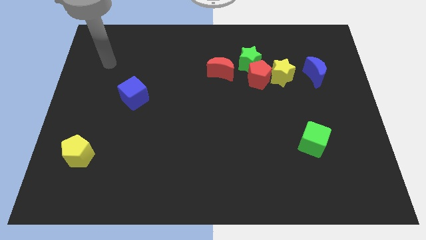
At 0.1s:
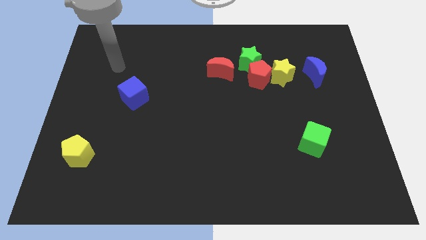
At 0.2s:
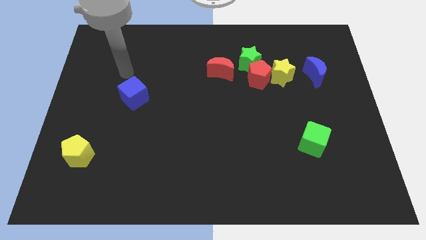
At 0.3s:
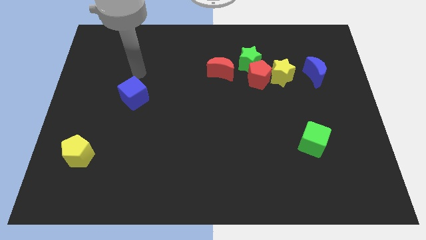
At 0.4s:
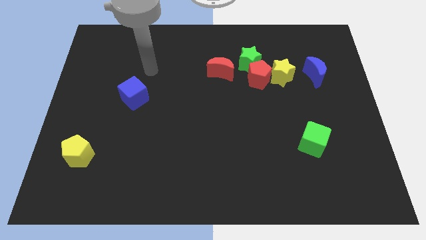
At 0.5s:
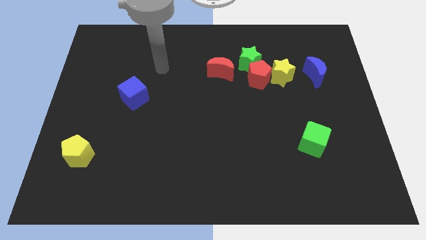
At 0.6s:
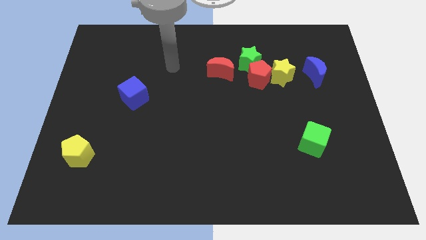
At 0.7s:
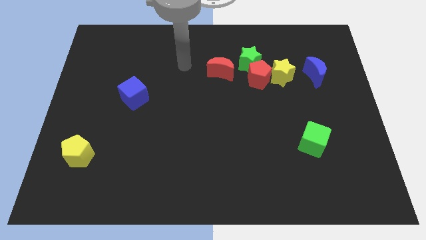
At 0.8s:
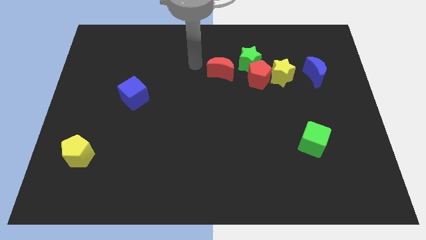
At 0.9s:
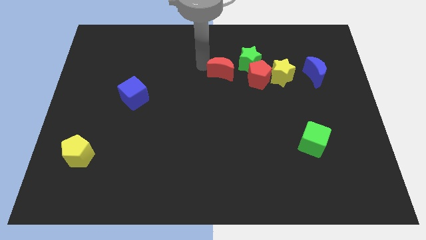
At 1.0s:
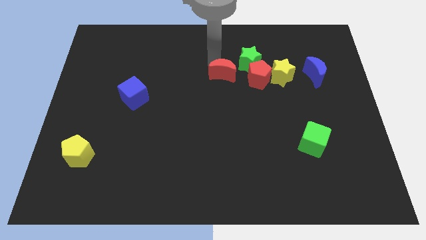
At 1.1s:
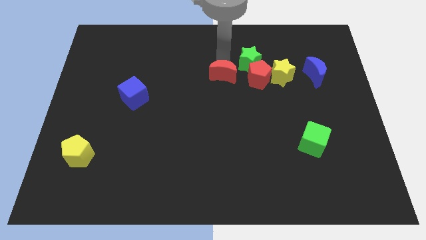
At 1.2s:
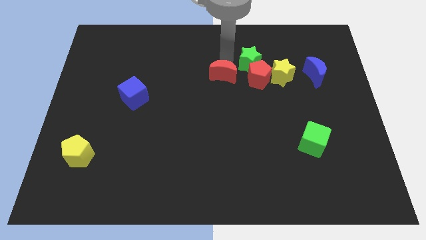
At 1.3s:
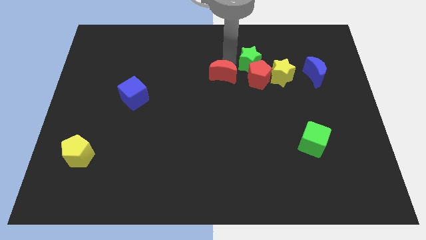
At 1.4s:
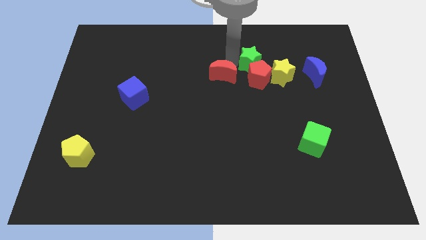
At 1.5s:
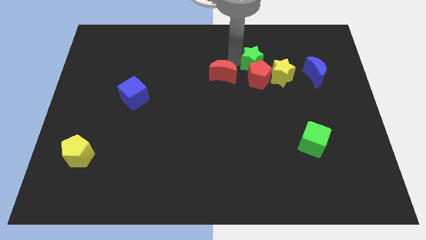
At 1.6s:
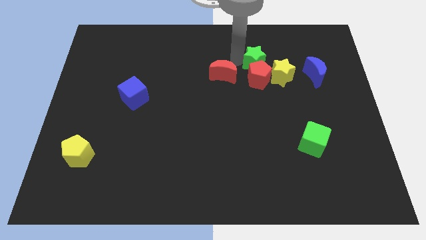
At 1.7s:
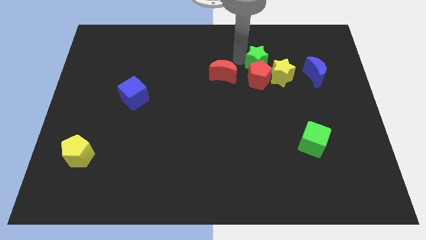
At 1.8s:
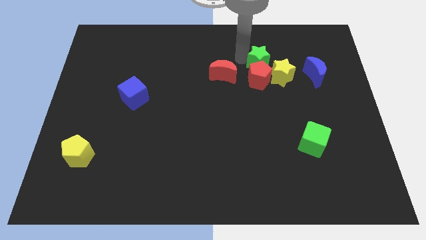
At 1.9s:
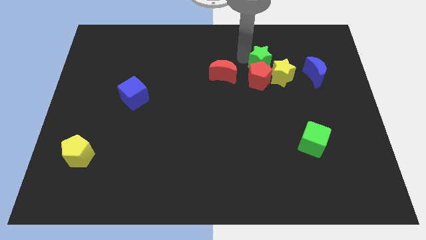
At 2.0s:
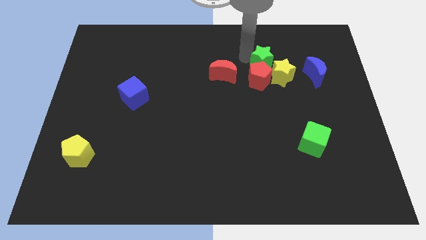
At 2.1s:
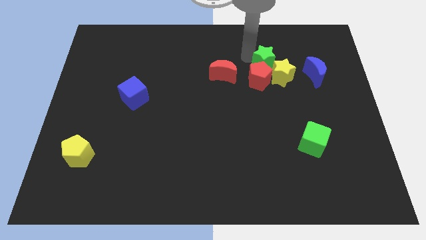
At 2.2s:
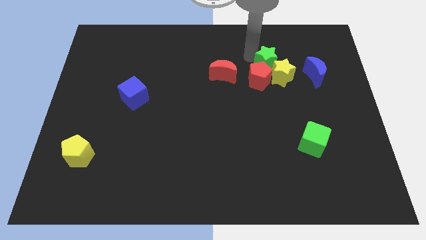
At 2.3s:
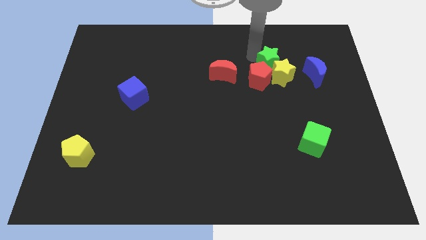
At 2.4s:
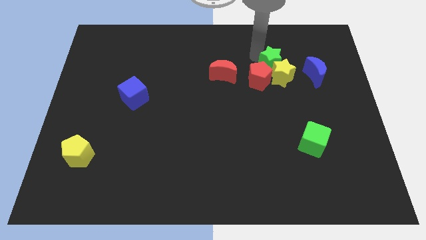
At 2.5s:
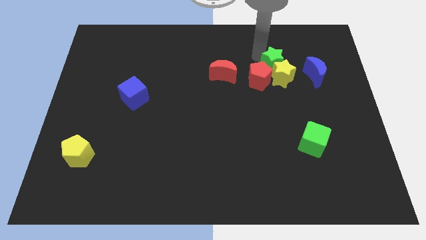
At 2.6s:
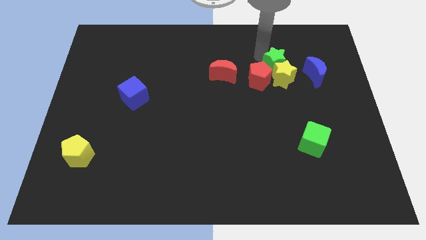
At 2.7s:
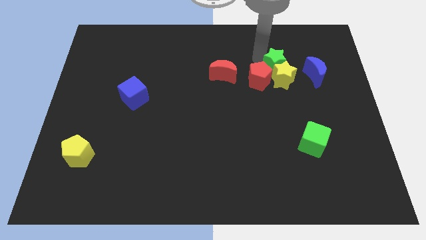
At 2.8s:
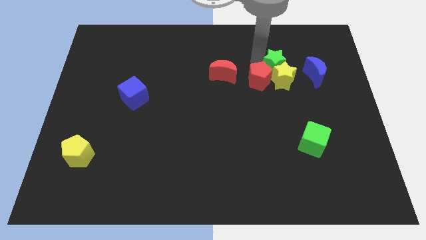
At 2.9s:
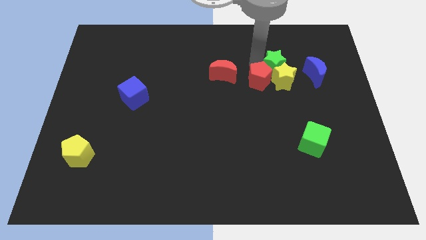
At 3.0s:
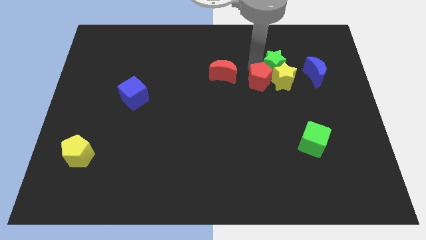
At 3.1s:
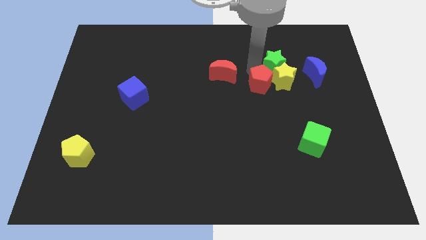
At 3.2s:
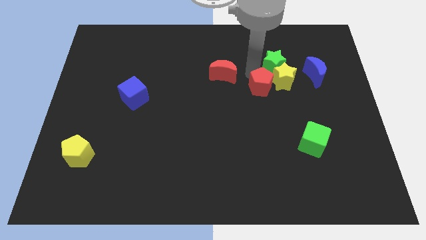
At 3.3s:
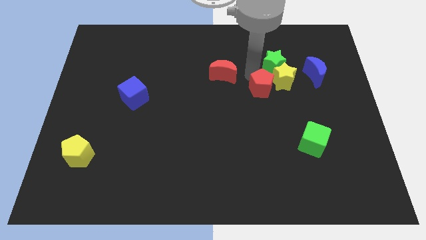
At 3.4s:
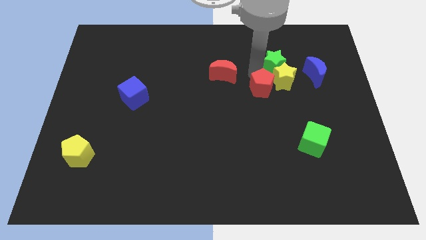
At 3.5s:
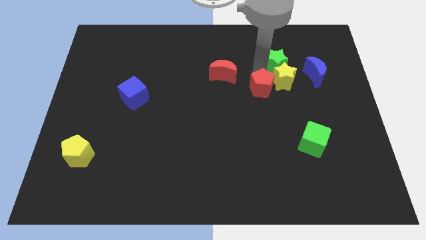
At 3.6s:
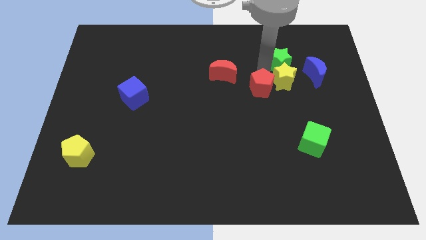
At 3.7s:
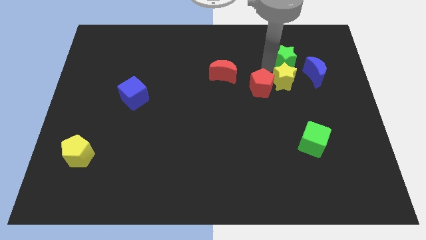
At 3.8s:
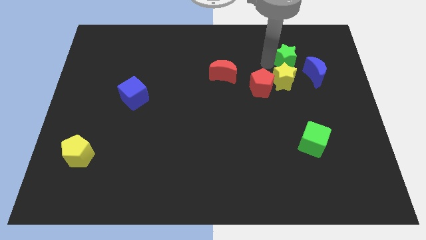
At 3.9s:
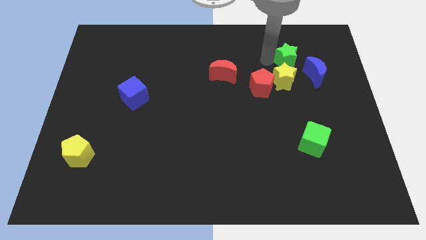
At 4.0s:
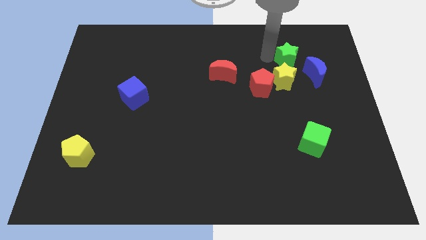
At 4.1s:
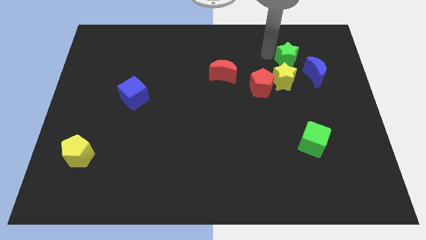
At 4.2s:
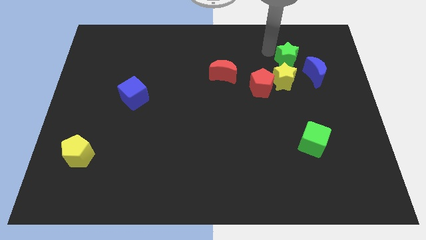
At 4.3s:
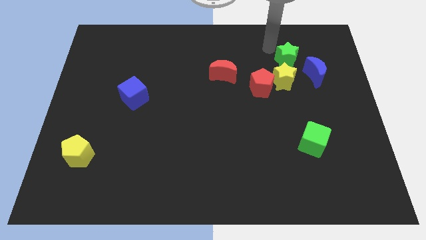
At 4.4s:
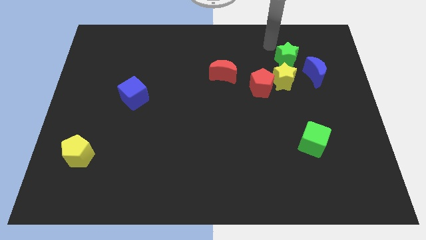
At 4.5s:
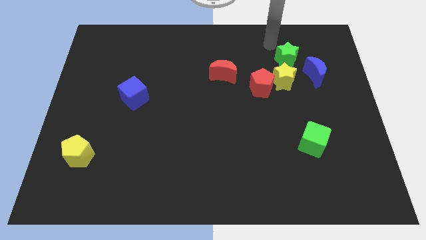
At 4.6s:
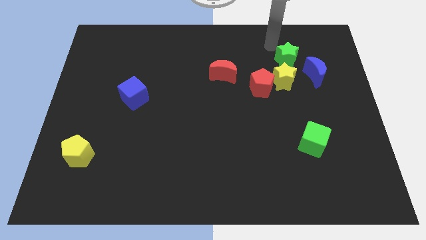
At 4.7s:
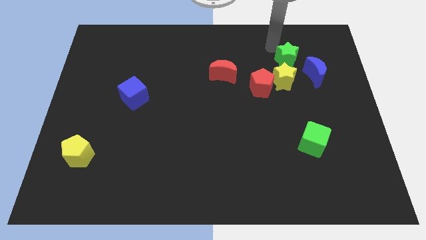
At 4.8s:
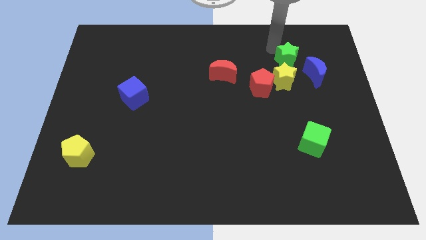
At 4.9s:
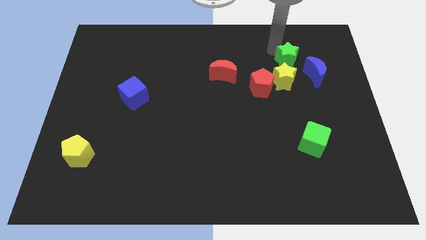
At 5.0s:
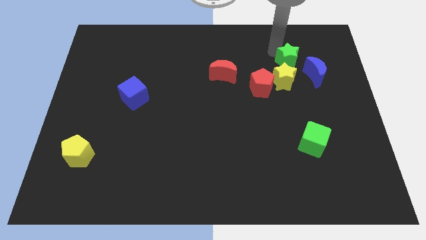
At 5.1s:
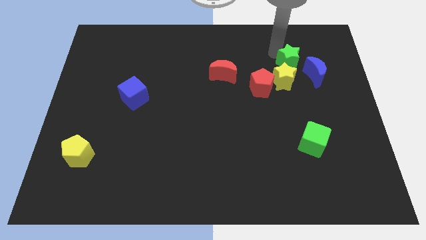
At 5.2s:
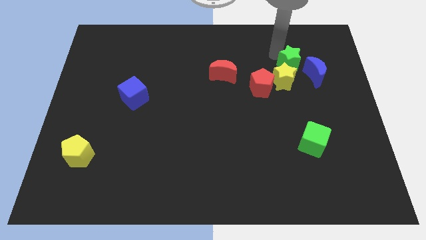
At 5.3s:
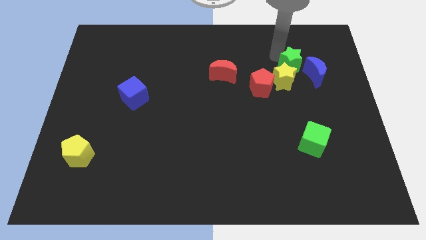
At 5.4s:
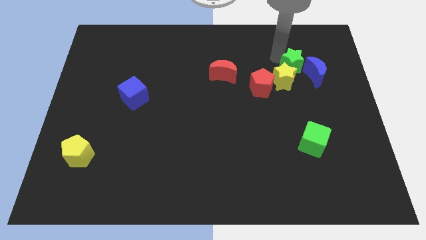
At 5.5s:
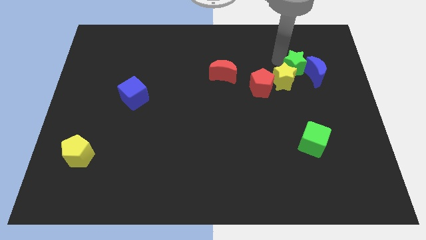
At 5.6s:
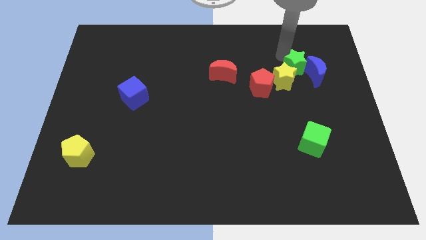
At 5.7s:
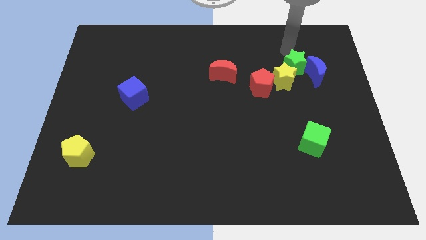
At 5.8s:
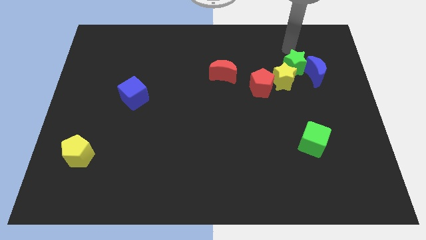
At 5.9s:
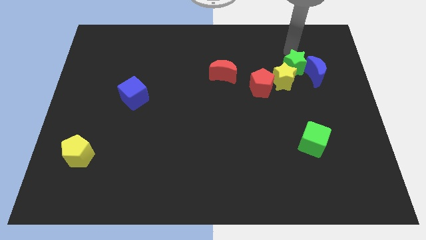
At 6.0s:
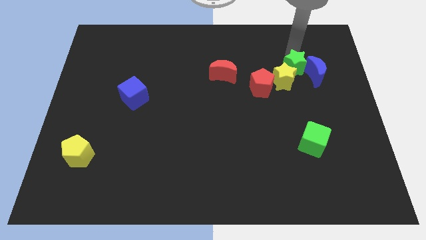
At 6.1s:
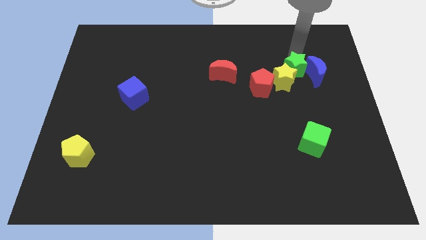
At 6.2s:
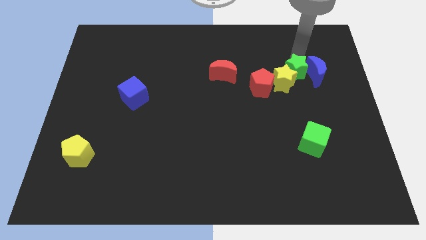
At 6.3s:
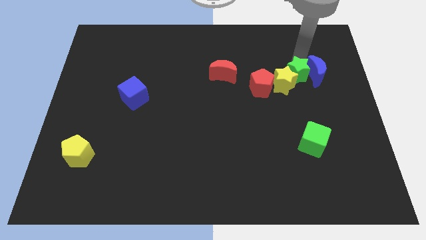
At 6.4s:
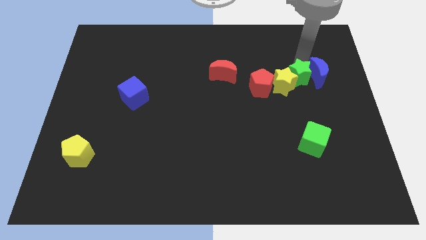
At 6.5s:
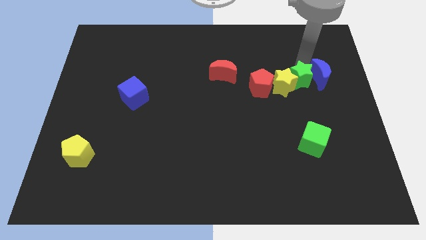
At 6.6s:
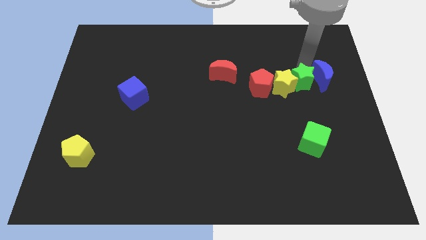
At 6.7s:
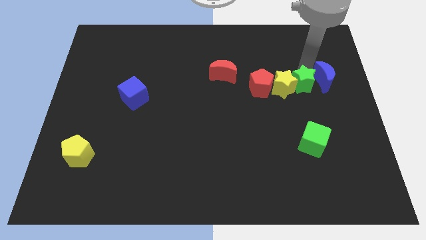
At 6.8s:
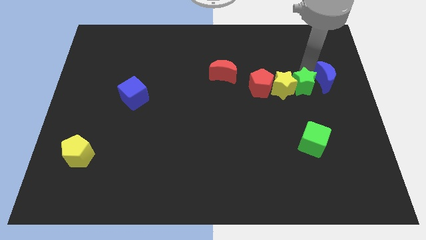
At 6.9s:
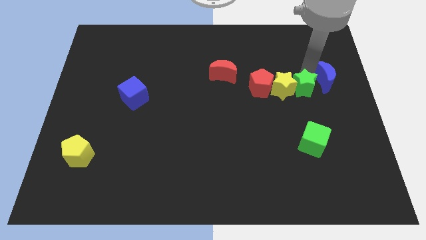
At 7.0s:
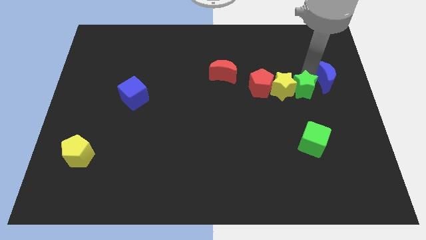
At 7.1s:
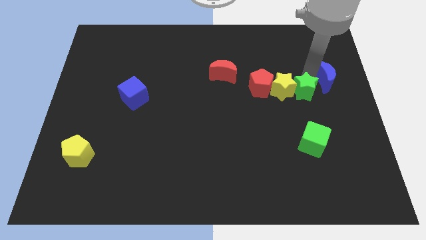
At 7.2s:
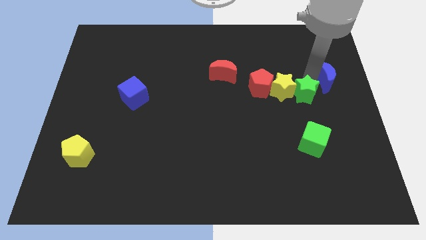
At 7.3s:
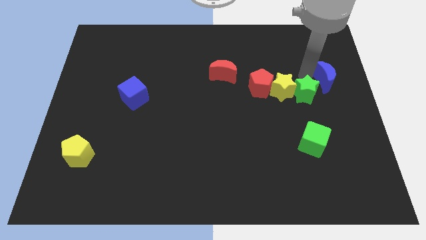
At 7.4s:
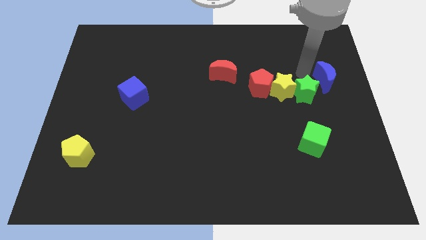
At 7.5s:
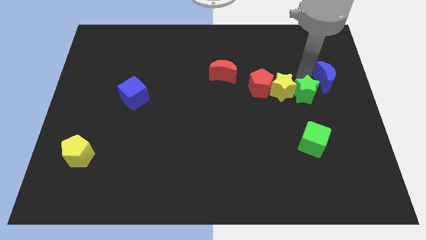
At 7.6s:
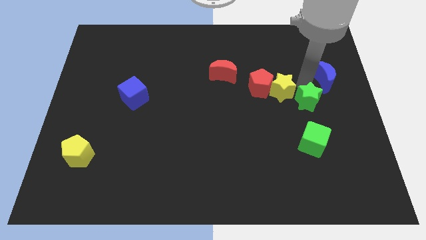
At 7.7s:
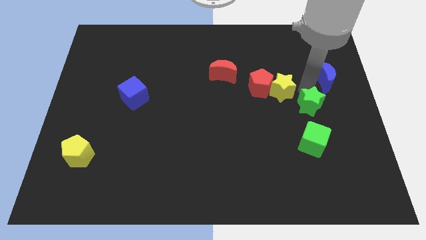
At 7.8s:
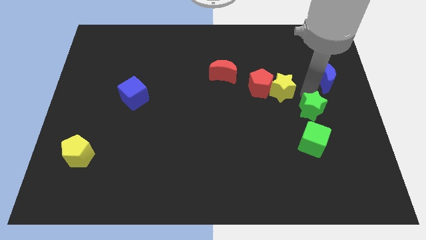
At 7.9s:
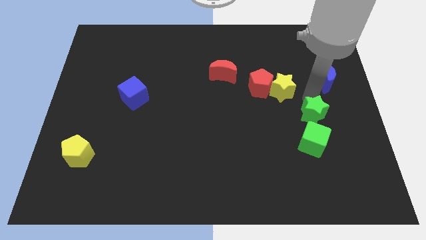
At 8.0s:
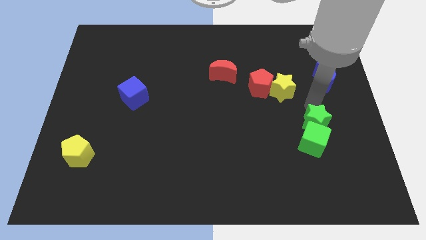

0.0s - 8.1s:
move the green star to the green cube
